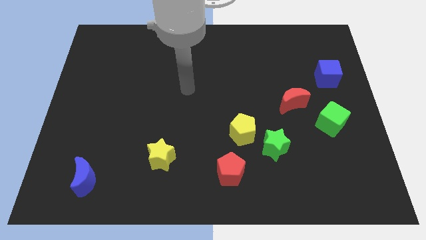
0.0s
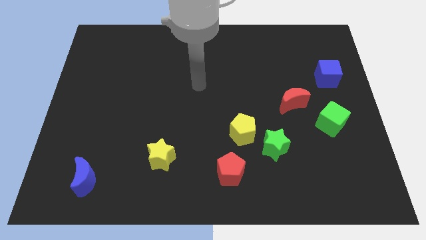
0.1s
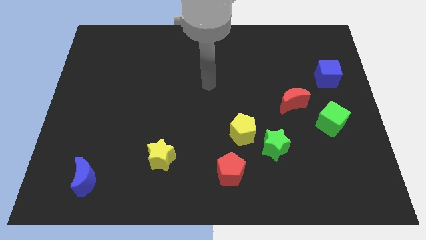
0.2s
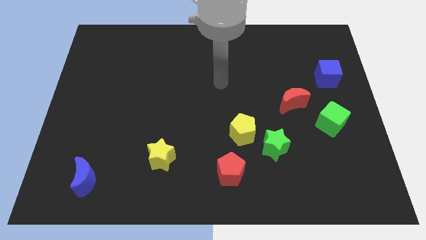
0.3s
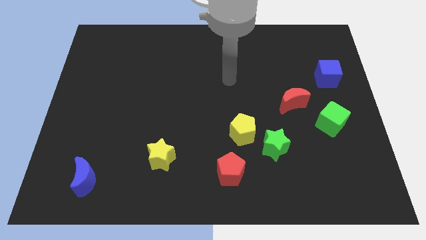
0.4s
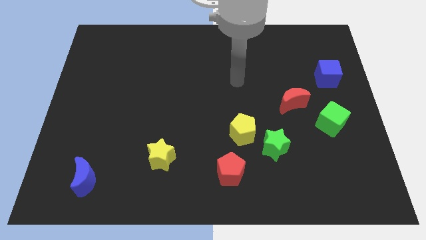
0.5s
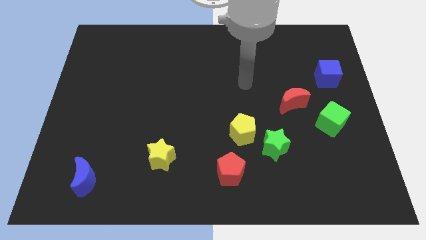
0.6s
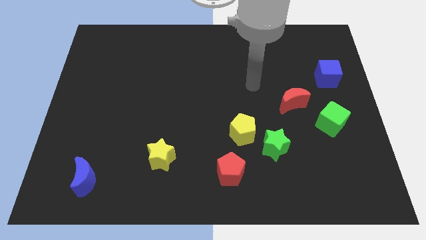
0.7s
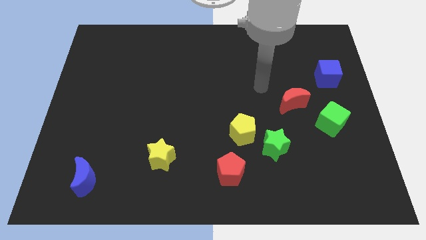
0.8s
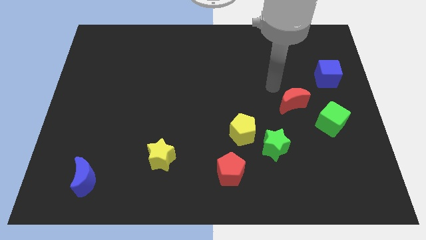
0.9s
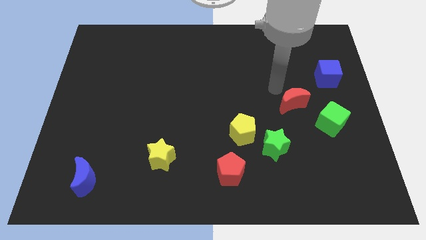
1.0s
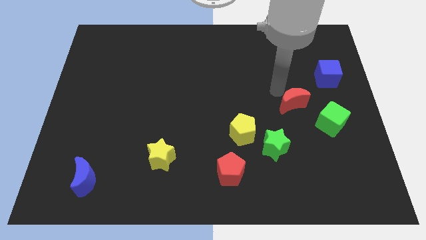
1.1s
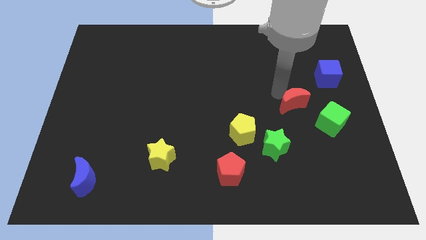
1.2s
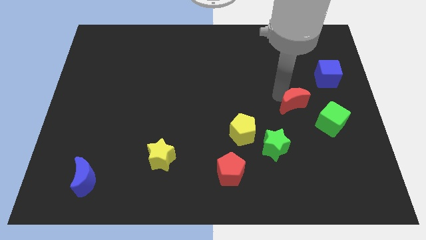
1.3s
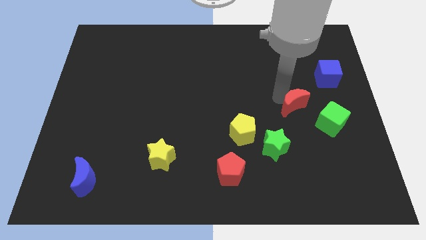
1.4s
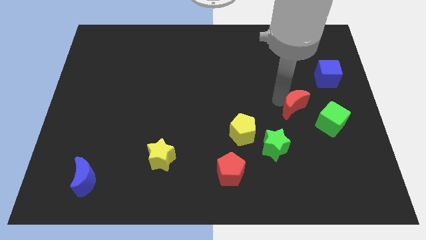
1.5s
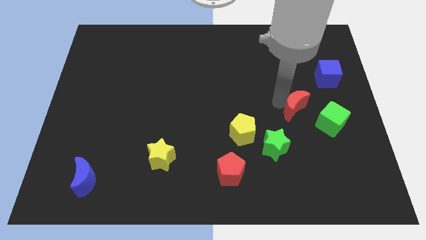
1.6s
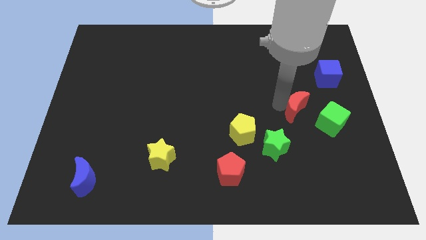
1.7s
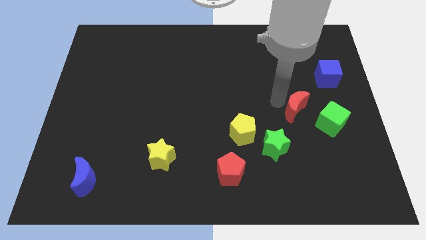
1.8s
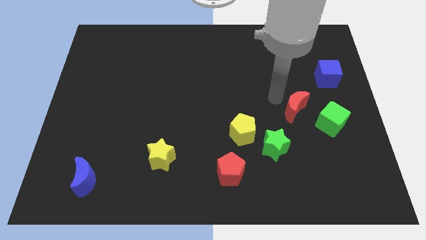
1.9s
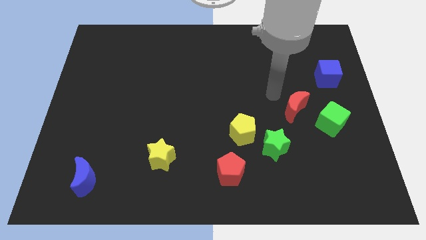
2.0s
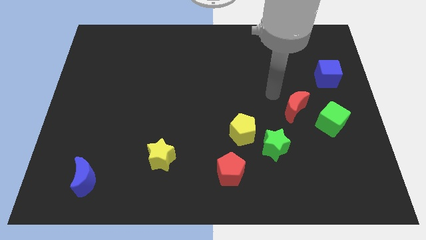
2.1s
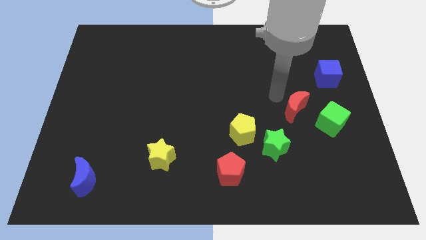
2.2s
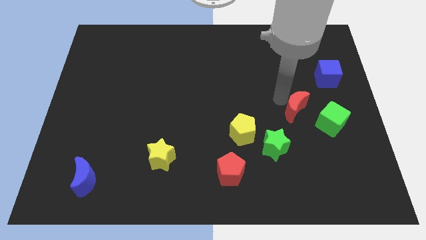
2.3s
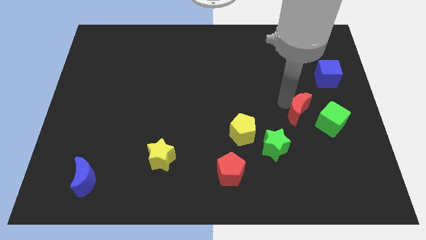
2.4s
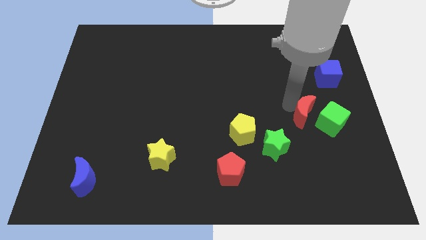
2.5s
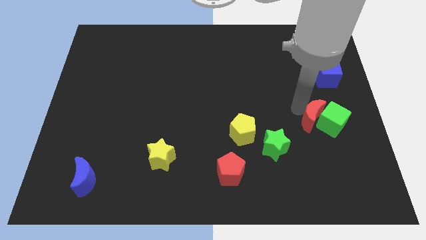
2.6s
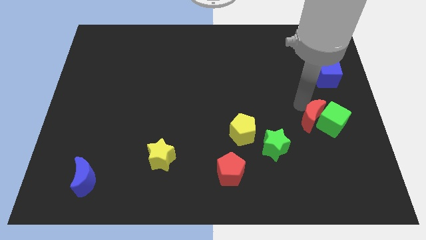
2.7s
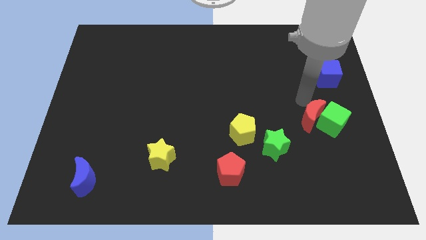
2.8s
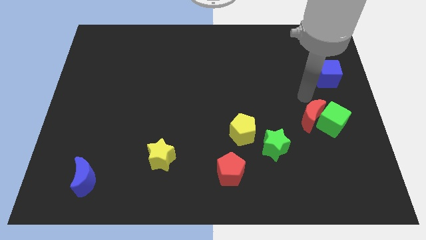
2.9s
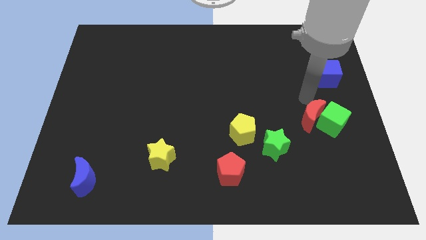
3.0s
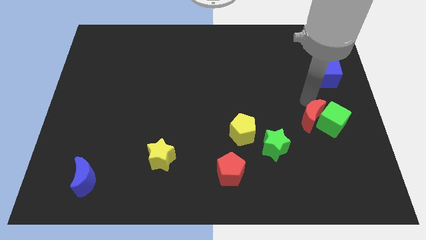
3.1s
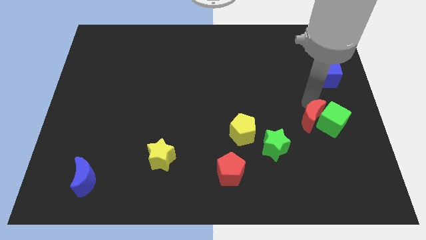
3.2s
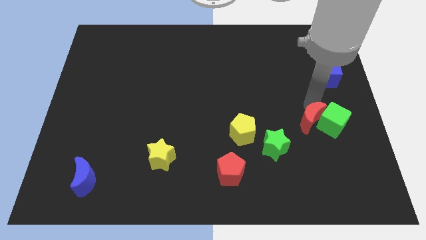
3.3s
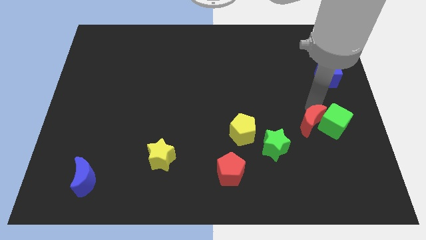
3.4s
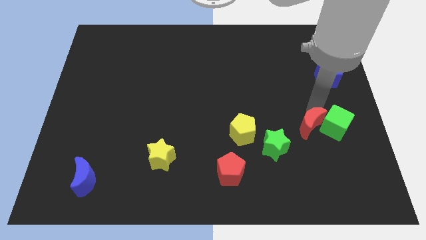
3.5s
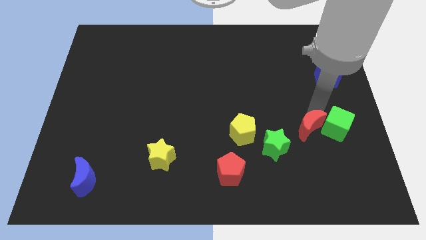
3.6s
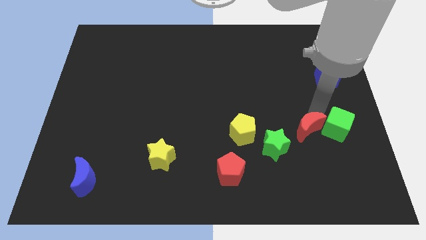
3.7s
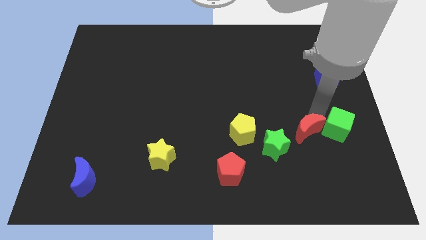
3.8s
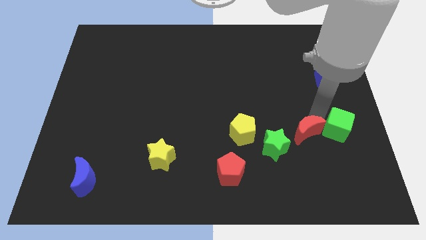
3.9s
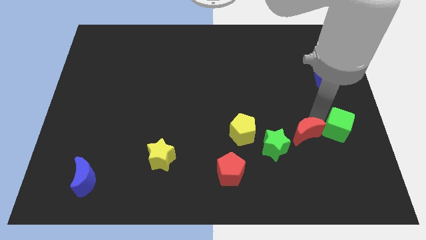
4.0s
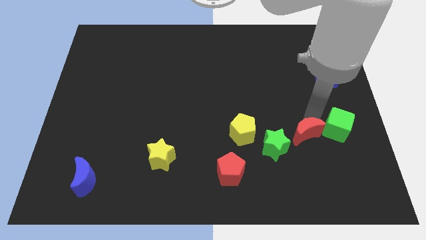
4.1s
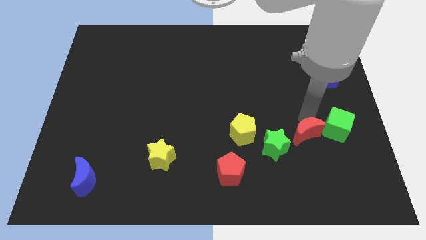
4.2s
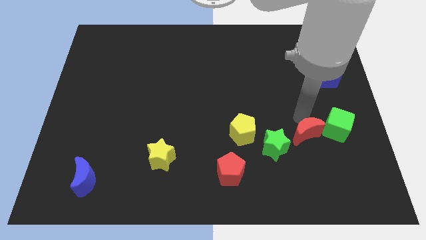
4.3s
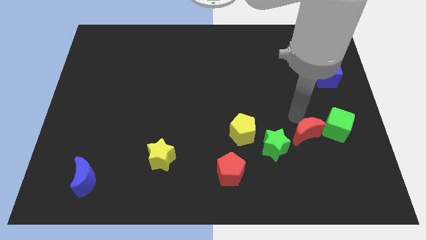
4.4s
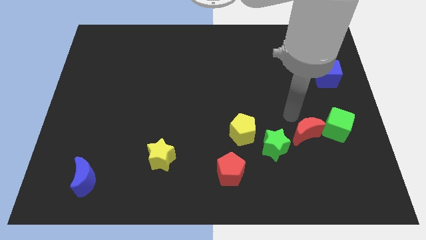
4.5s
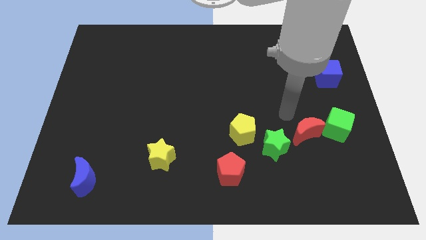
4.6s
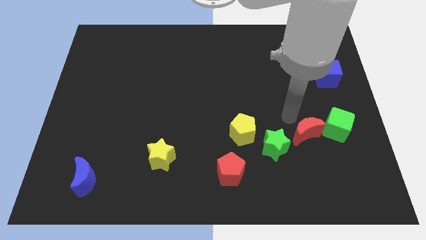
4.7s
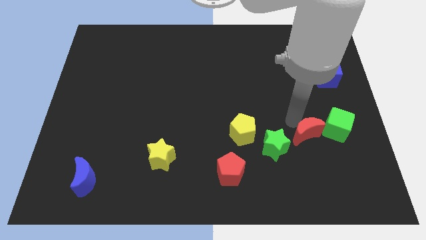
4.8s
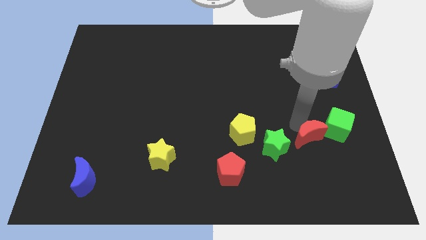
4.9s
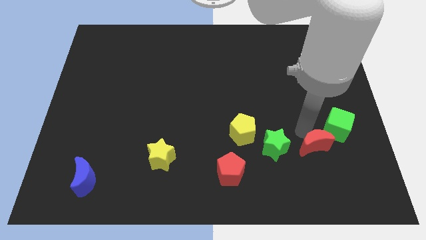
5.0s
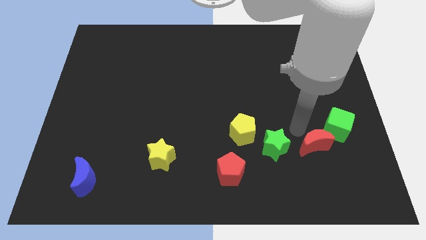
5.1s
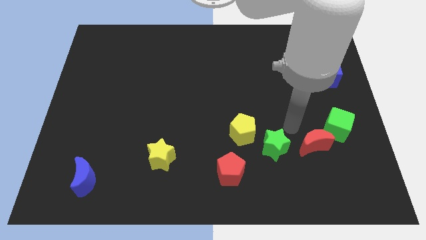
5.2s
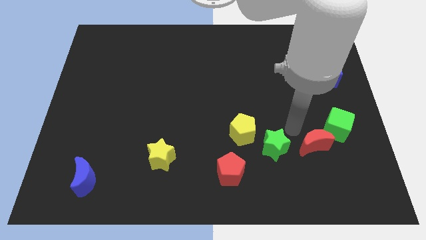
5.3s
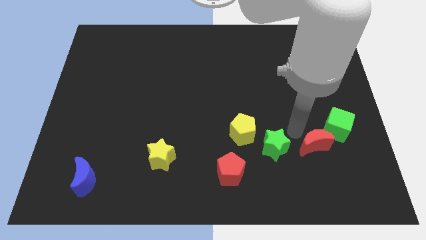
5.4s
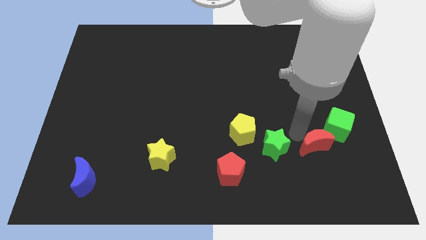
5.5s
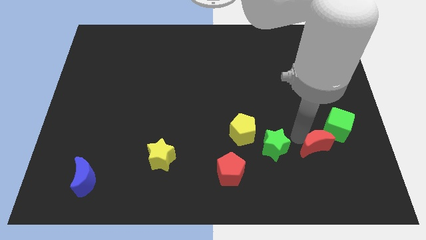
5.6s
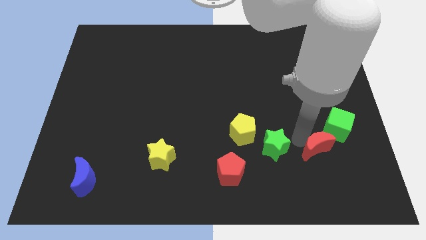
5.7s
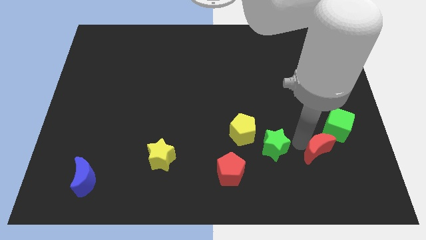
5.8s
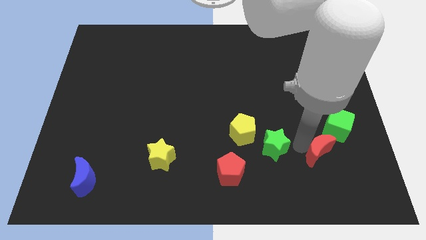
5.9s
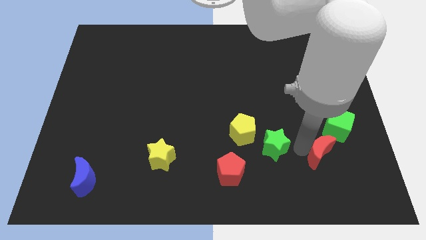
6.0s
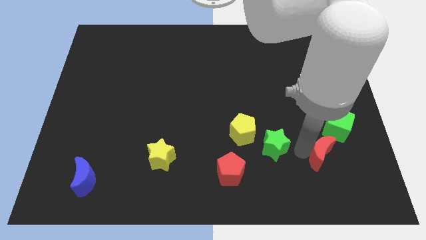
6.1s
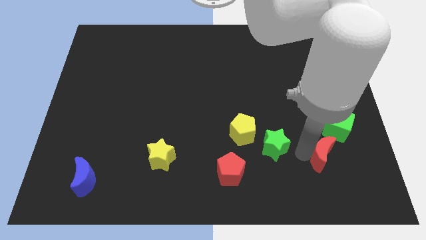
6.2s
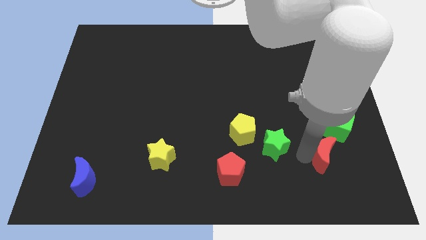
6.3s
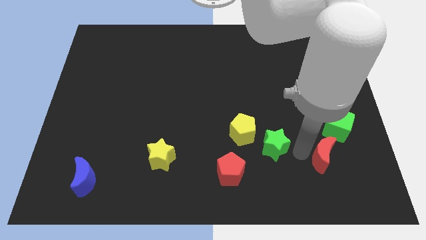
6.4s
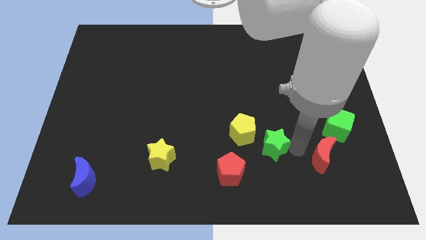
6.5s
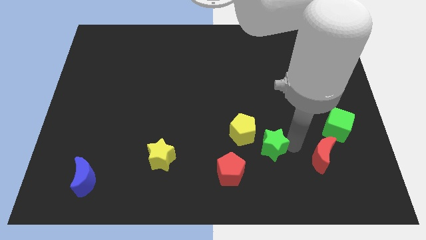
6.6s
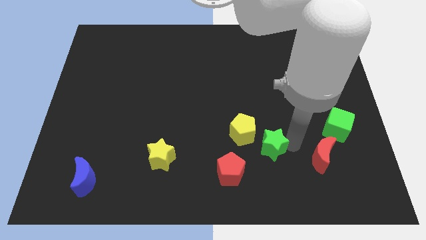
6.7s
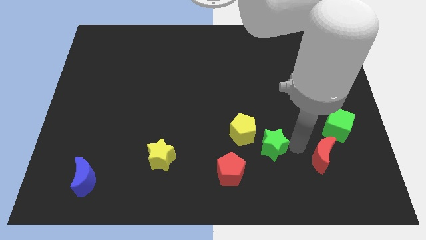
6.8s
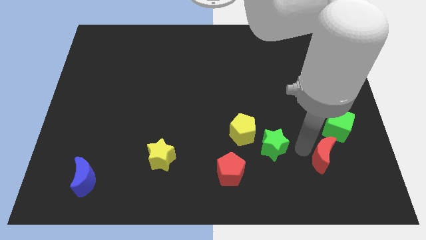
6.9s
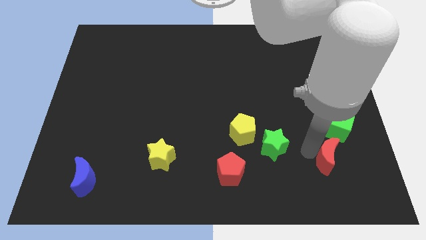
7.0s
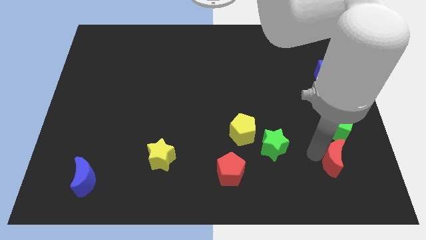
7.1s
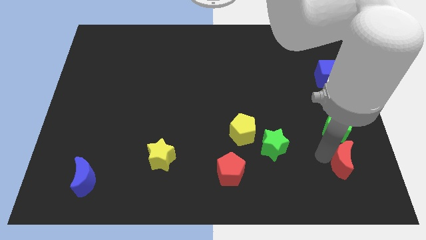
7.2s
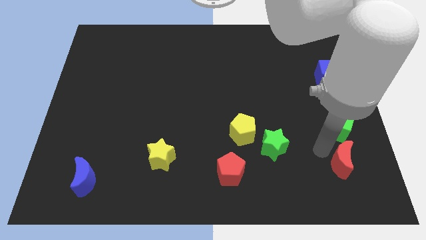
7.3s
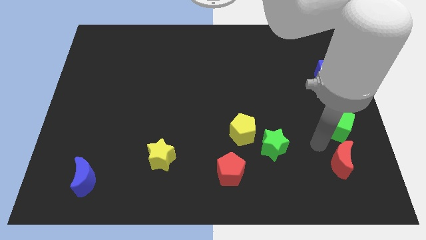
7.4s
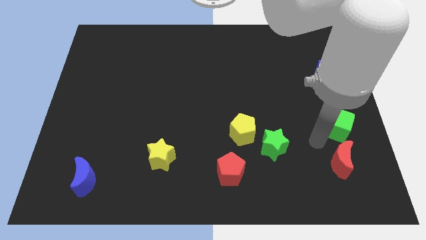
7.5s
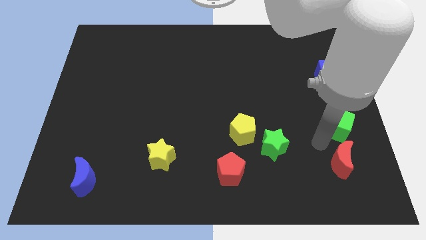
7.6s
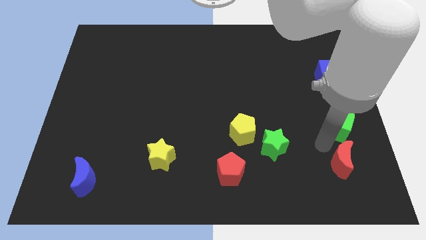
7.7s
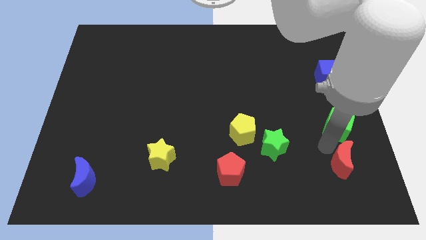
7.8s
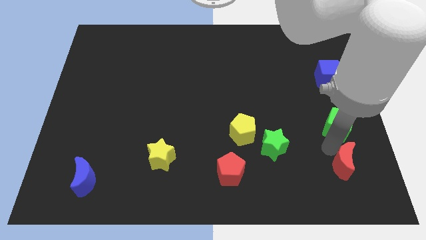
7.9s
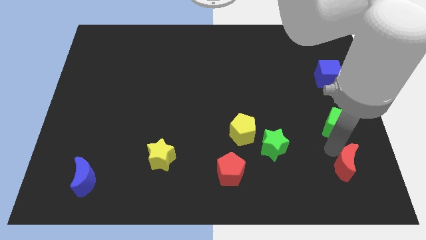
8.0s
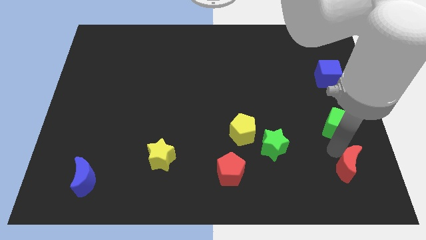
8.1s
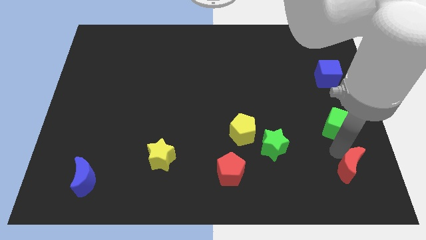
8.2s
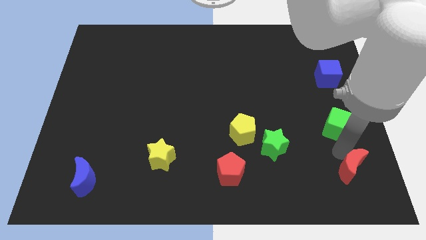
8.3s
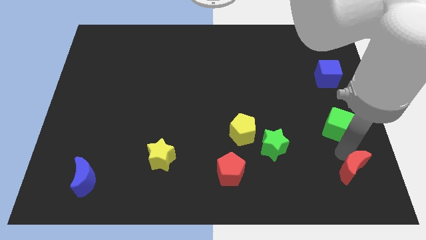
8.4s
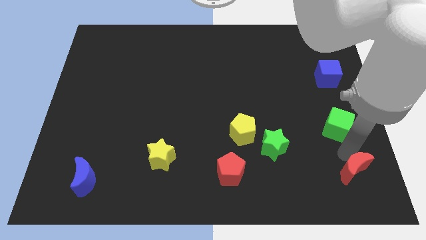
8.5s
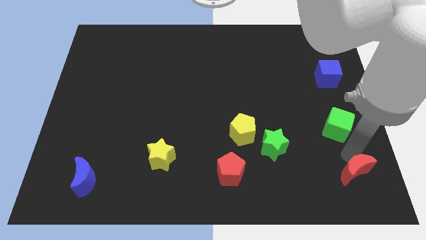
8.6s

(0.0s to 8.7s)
slide the red moon to the bottom right corner
